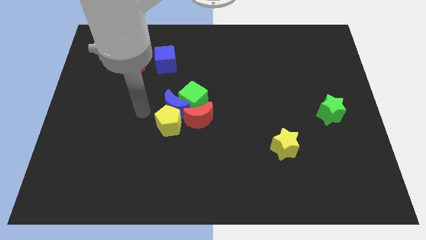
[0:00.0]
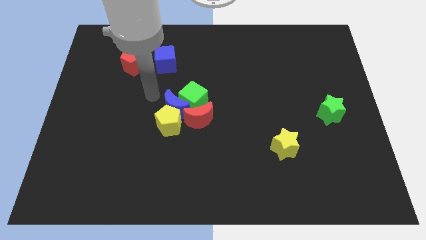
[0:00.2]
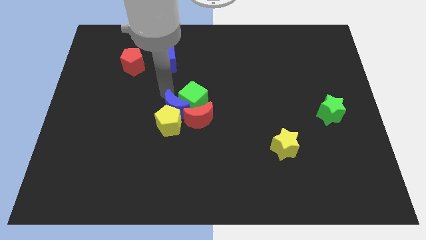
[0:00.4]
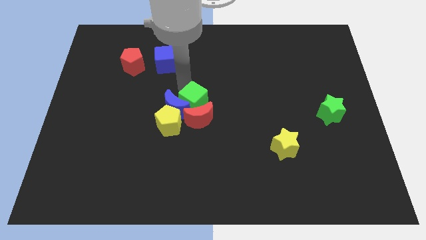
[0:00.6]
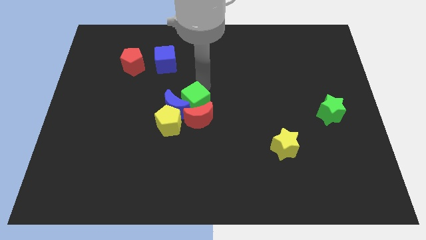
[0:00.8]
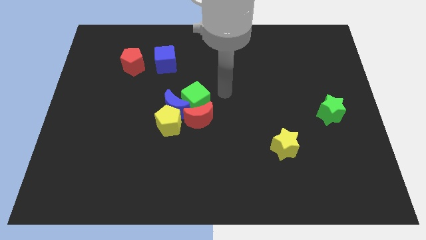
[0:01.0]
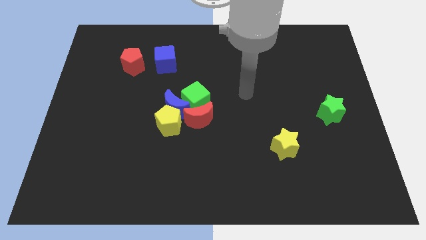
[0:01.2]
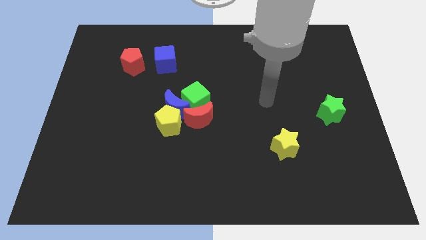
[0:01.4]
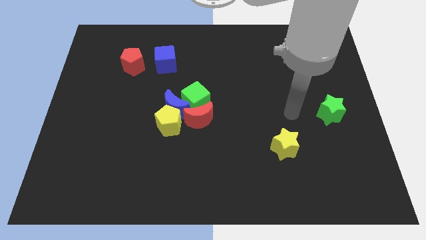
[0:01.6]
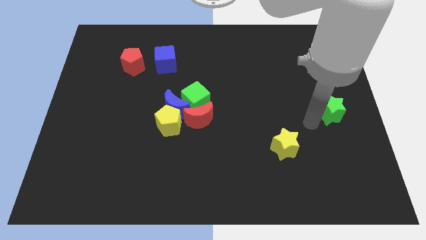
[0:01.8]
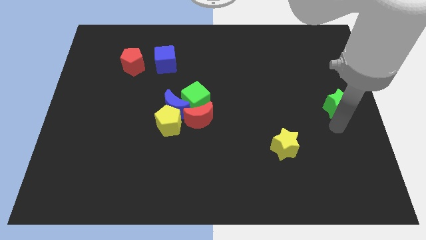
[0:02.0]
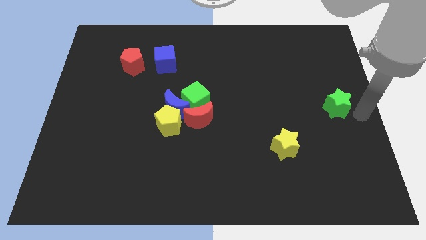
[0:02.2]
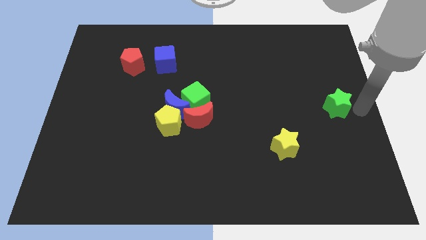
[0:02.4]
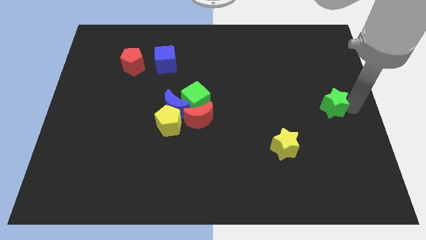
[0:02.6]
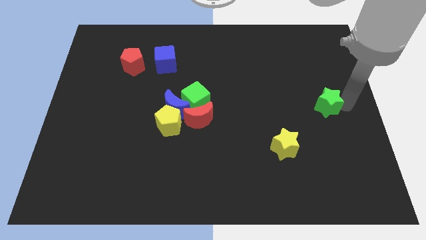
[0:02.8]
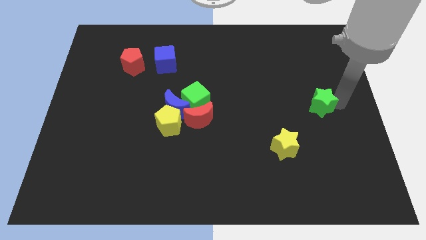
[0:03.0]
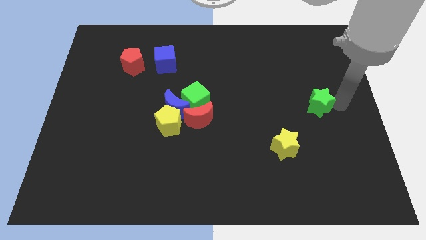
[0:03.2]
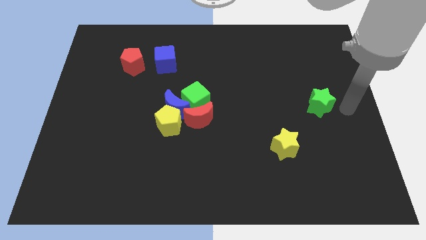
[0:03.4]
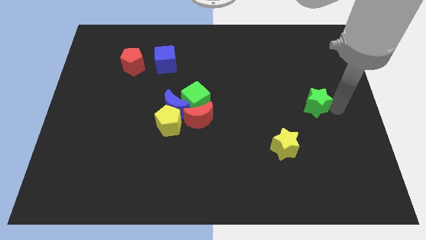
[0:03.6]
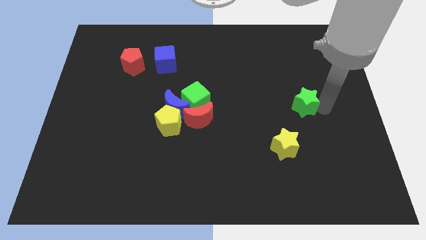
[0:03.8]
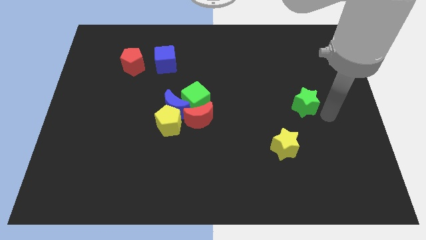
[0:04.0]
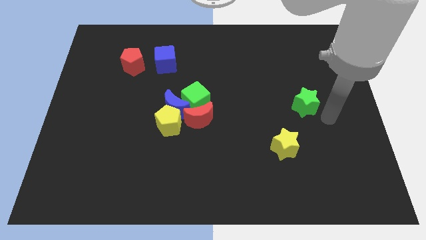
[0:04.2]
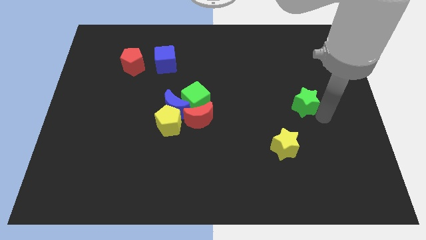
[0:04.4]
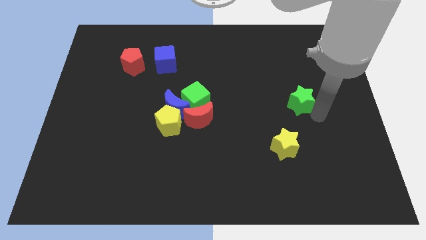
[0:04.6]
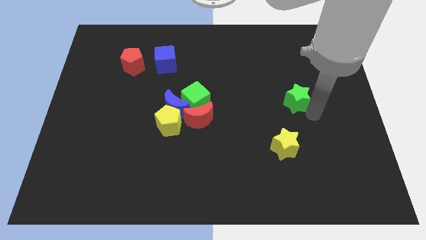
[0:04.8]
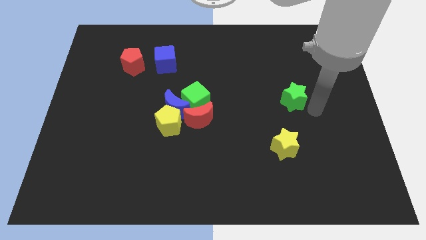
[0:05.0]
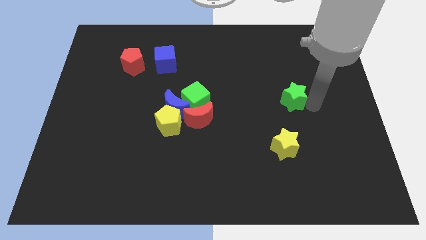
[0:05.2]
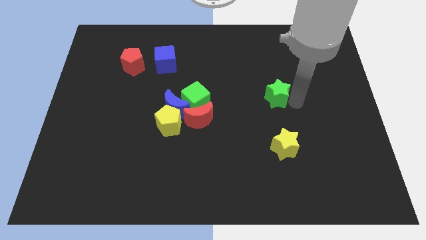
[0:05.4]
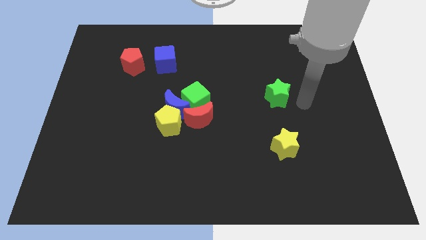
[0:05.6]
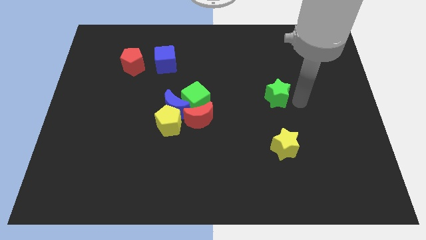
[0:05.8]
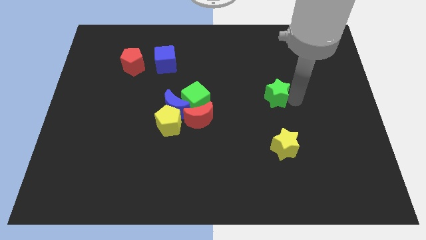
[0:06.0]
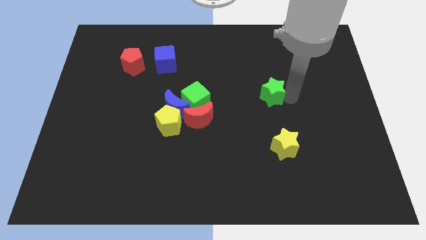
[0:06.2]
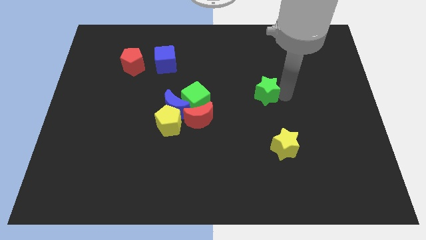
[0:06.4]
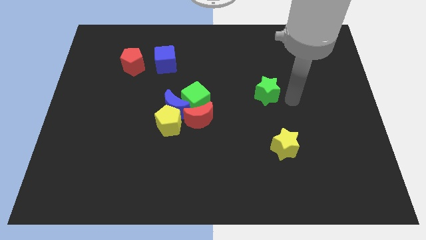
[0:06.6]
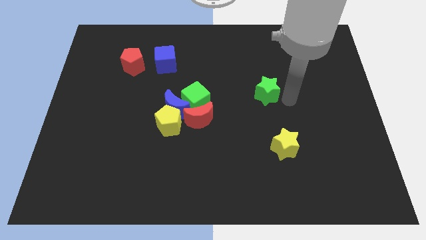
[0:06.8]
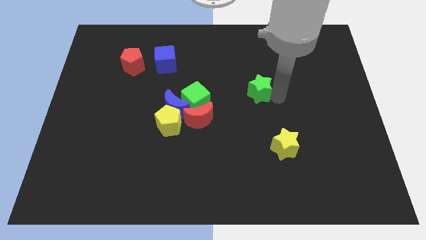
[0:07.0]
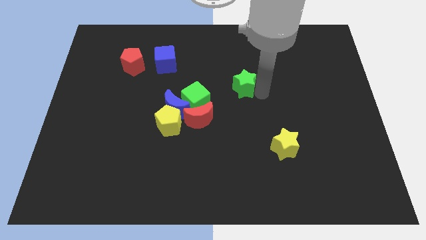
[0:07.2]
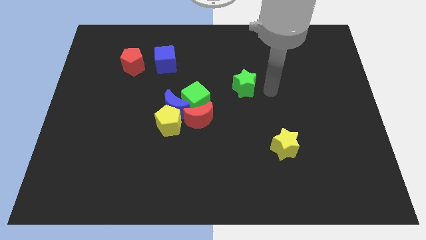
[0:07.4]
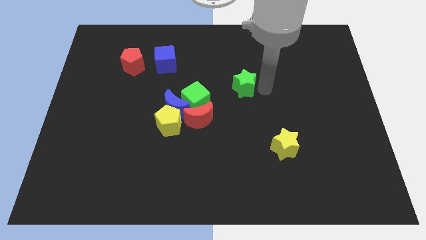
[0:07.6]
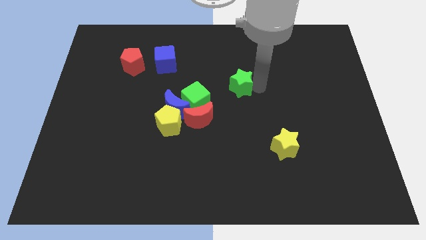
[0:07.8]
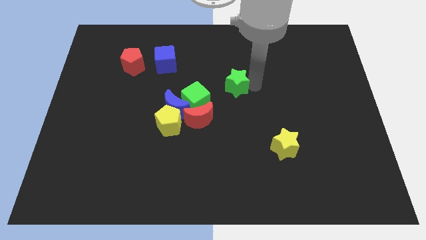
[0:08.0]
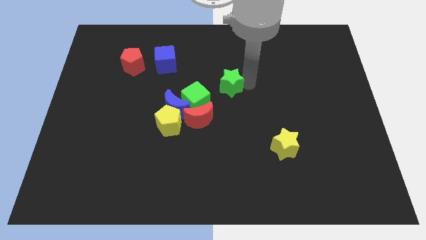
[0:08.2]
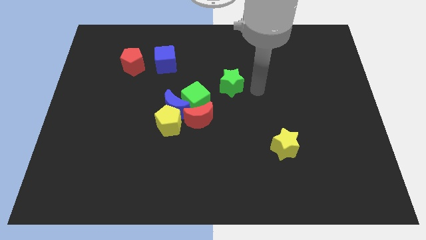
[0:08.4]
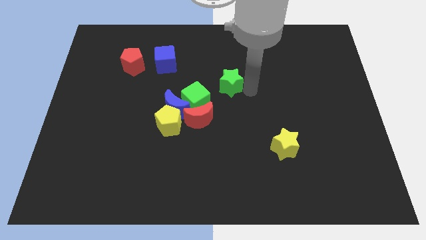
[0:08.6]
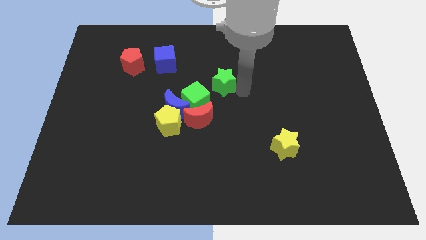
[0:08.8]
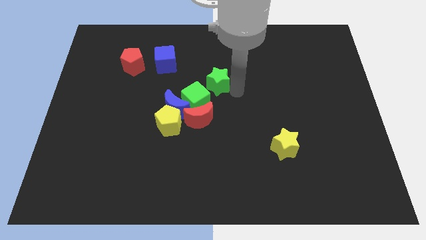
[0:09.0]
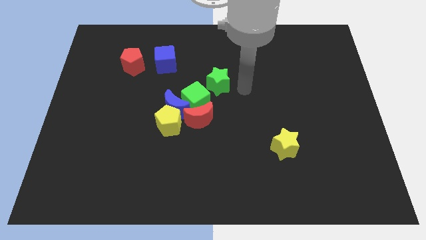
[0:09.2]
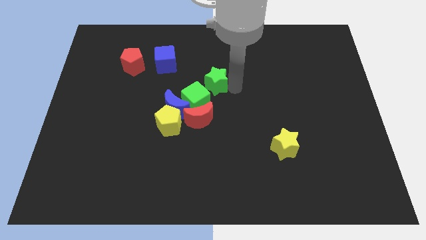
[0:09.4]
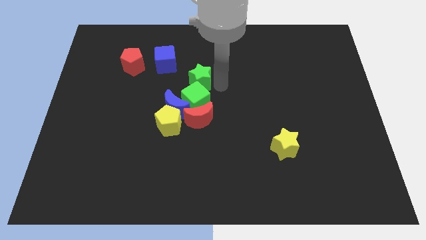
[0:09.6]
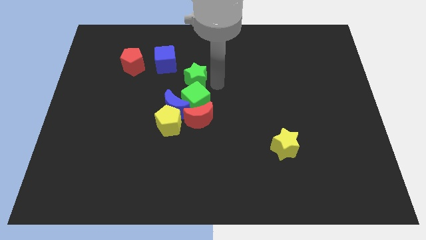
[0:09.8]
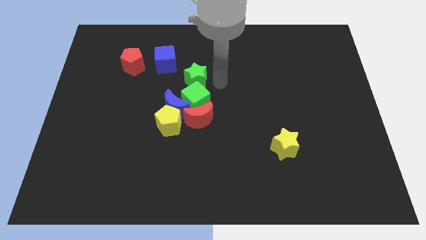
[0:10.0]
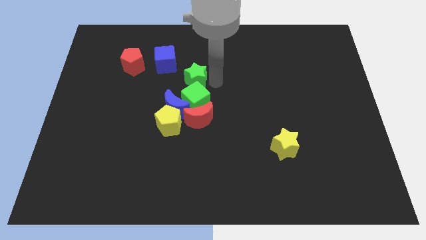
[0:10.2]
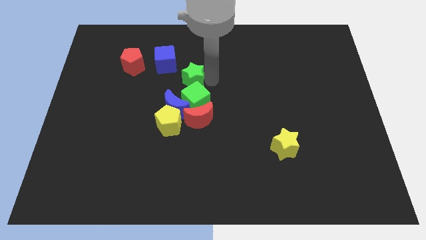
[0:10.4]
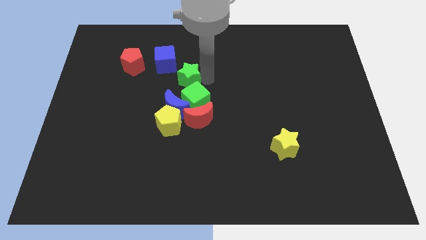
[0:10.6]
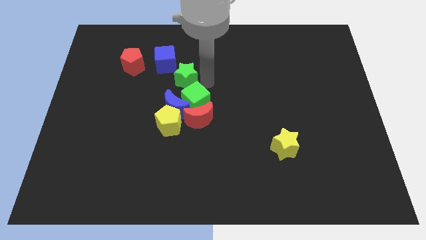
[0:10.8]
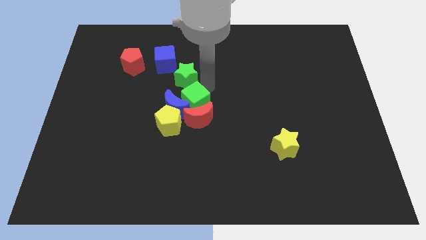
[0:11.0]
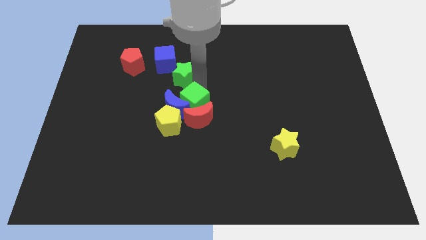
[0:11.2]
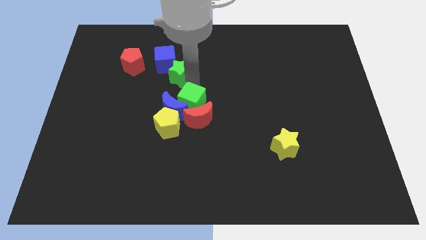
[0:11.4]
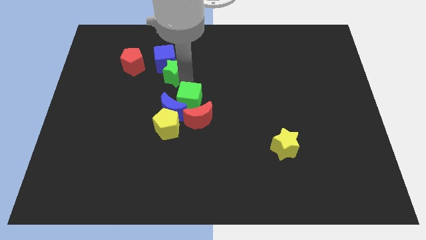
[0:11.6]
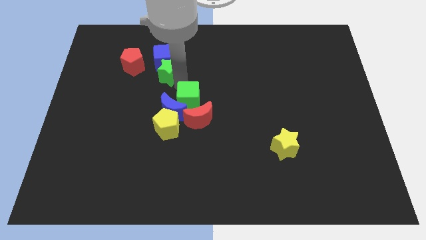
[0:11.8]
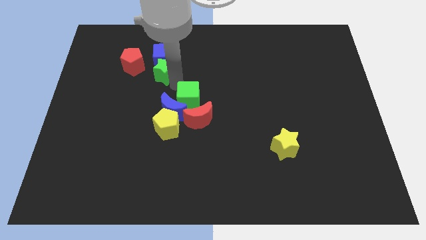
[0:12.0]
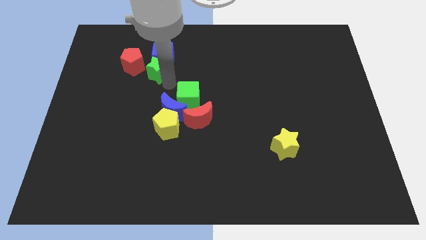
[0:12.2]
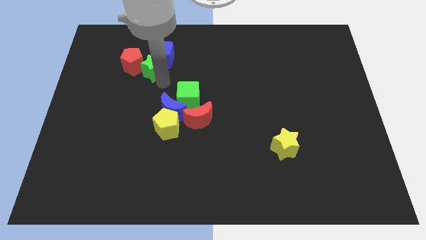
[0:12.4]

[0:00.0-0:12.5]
push the green star close to the red pentagon

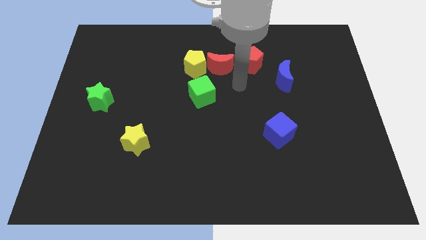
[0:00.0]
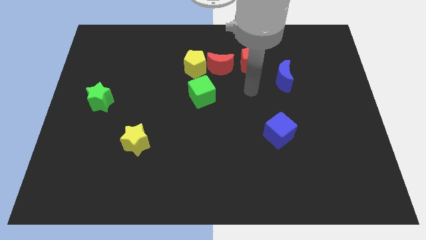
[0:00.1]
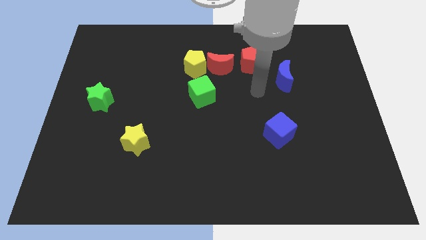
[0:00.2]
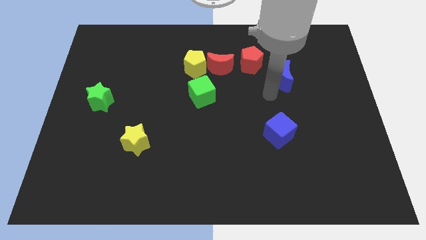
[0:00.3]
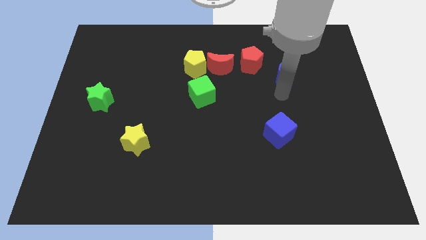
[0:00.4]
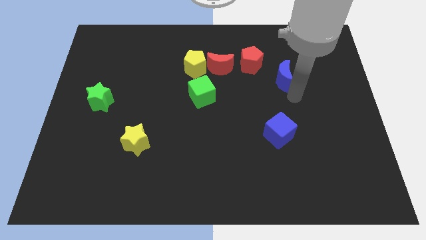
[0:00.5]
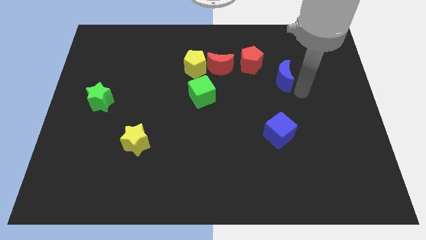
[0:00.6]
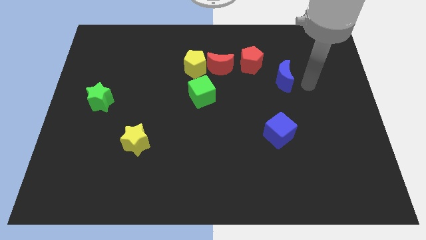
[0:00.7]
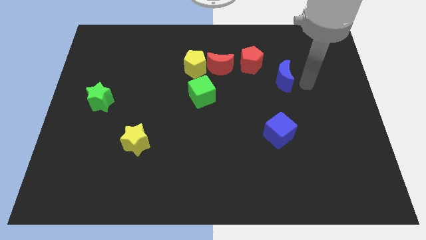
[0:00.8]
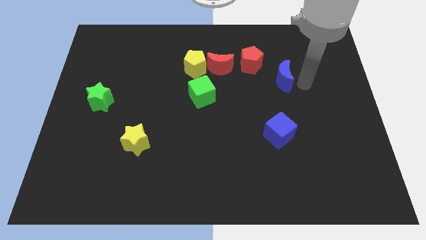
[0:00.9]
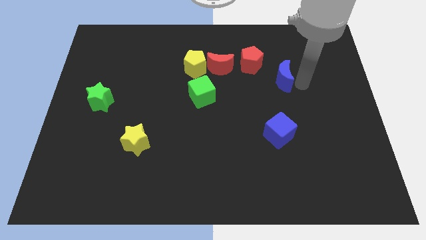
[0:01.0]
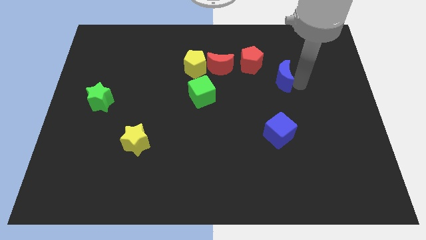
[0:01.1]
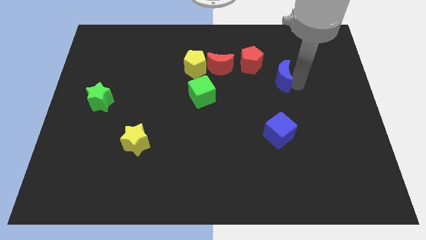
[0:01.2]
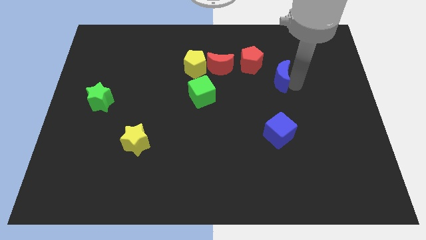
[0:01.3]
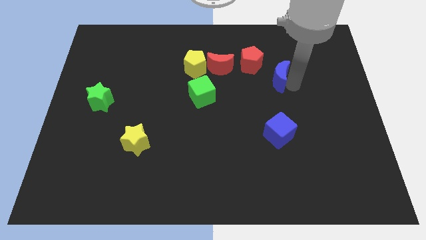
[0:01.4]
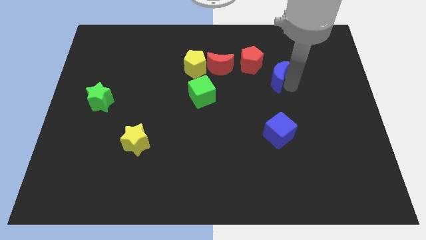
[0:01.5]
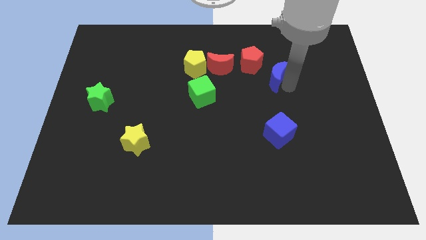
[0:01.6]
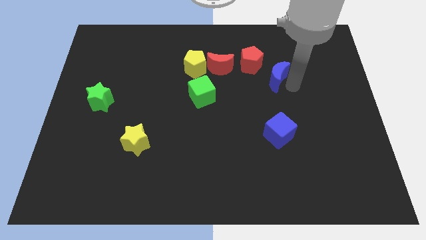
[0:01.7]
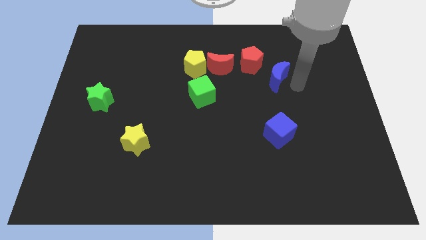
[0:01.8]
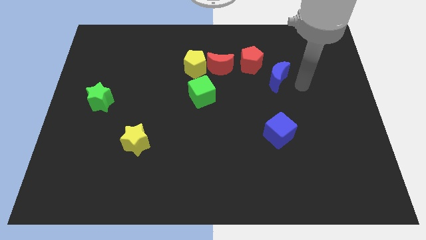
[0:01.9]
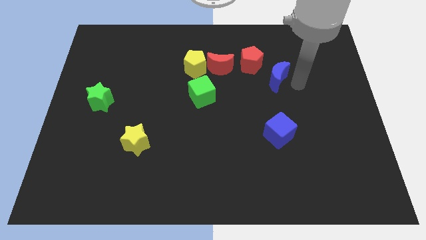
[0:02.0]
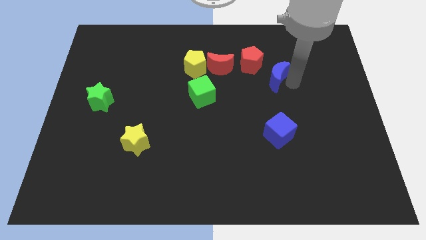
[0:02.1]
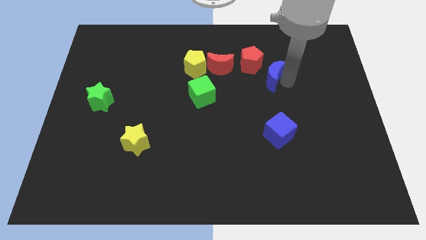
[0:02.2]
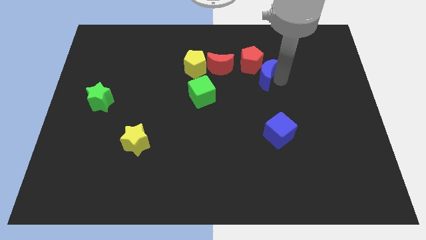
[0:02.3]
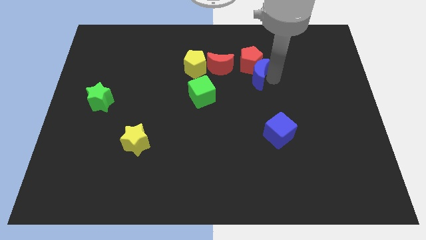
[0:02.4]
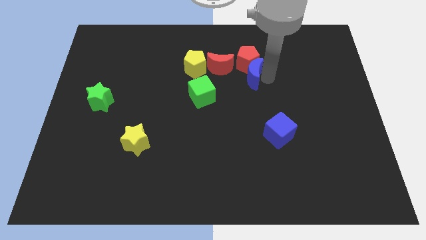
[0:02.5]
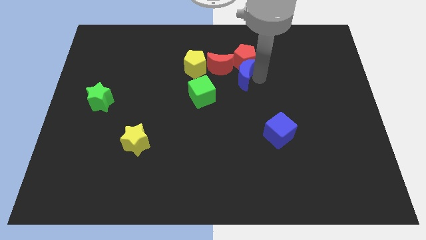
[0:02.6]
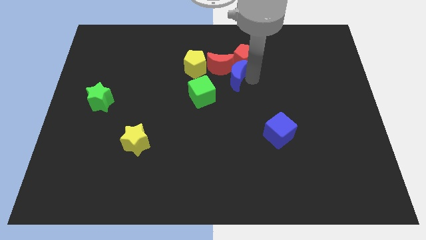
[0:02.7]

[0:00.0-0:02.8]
put the blue moon to the red moon
